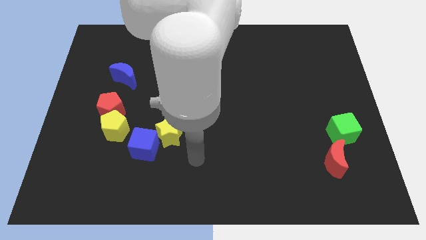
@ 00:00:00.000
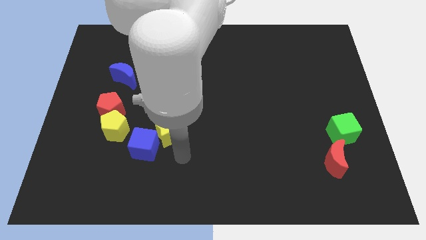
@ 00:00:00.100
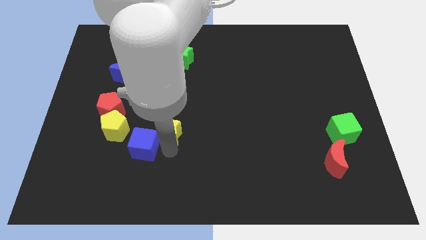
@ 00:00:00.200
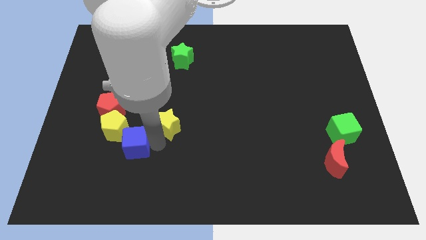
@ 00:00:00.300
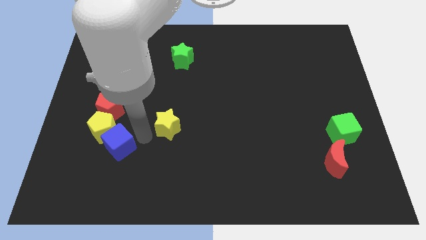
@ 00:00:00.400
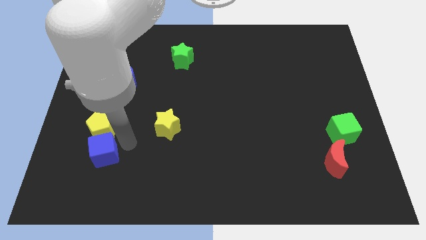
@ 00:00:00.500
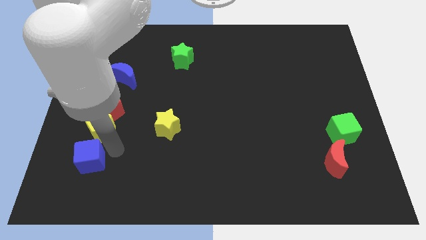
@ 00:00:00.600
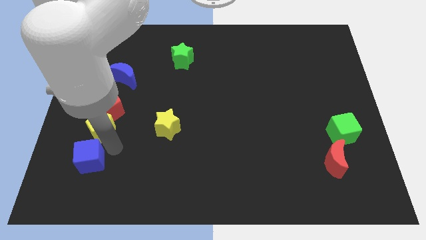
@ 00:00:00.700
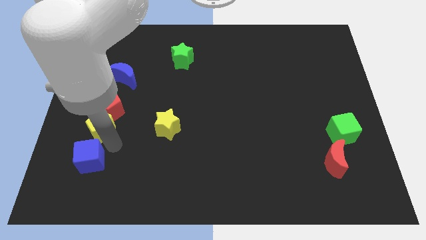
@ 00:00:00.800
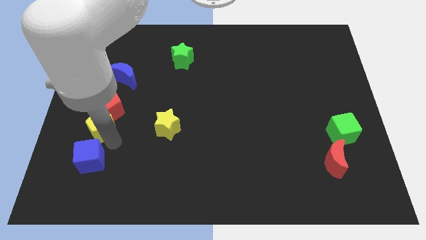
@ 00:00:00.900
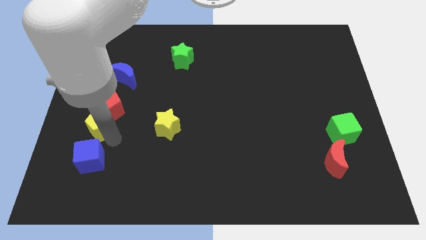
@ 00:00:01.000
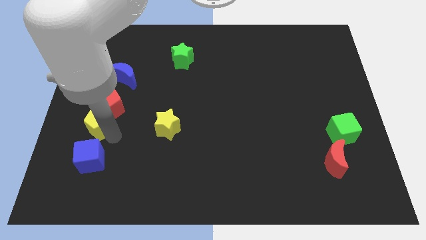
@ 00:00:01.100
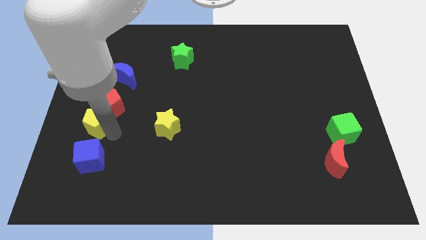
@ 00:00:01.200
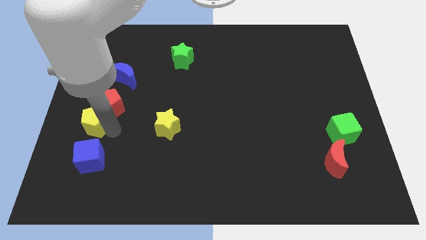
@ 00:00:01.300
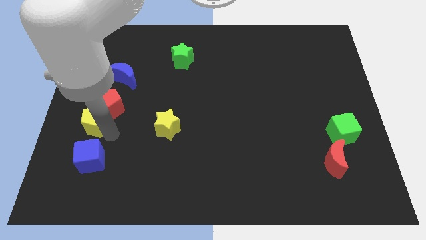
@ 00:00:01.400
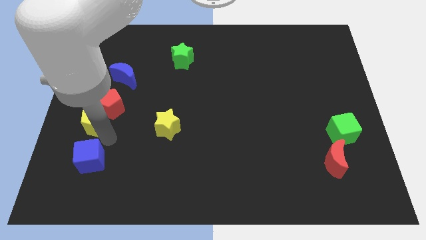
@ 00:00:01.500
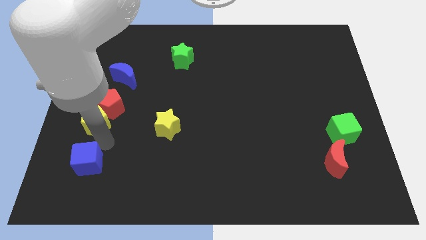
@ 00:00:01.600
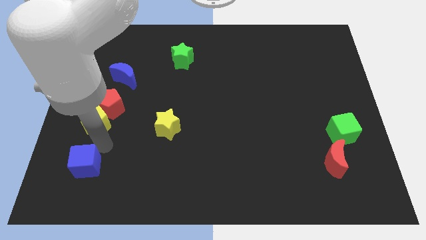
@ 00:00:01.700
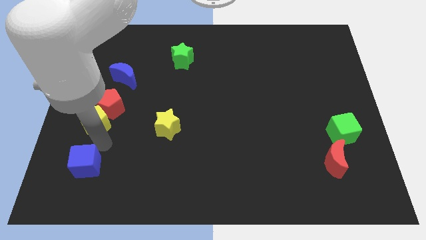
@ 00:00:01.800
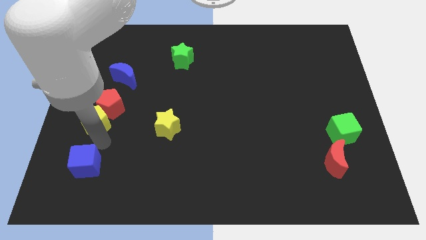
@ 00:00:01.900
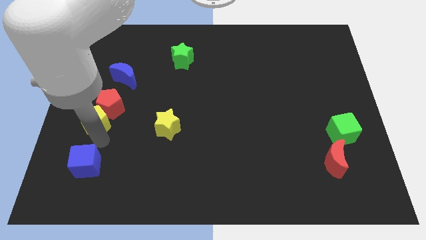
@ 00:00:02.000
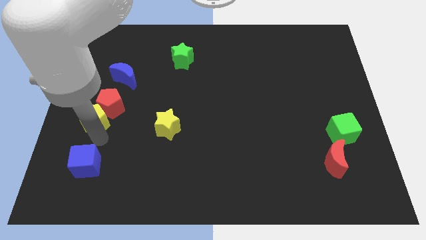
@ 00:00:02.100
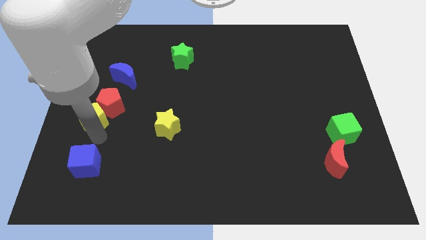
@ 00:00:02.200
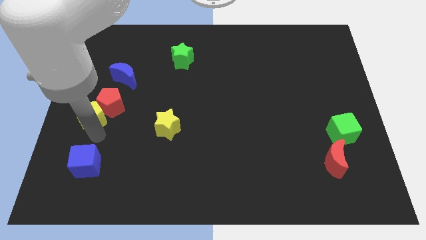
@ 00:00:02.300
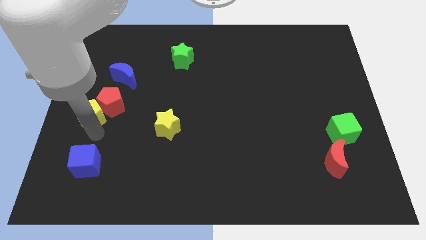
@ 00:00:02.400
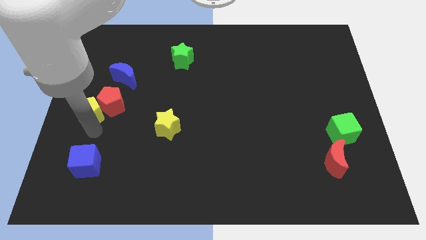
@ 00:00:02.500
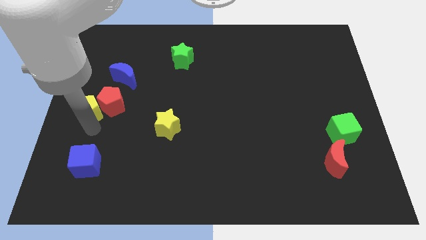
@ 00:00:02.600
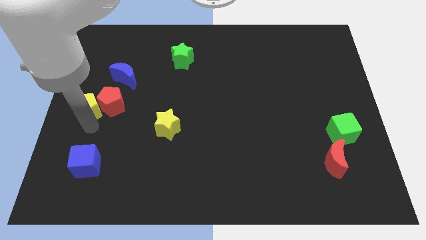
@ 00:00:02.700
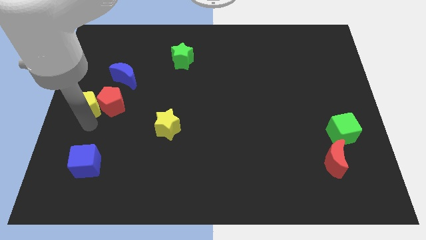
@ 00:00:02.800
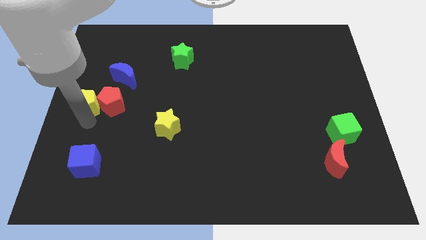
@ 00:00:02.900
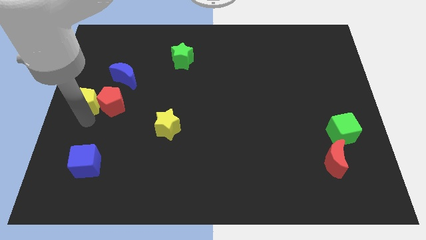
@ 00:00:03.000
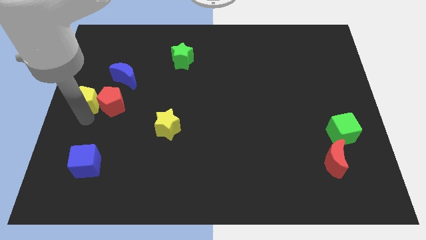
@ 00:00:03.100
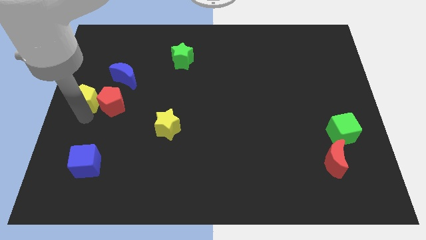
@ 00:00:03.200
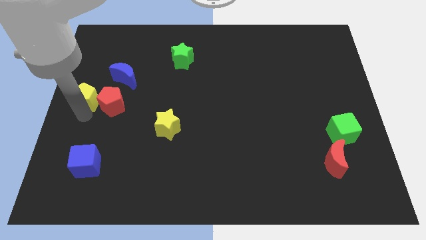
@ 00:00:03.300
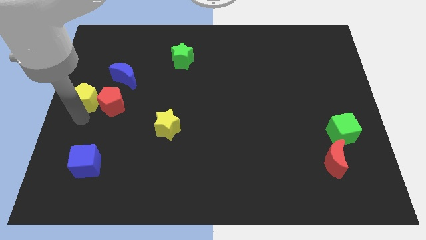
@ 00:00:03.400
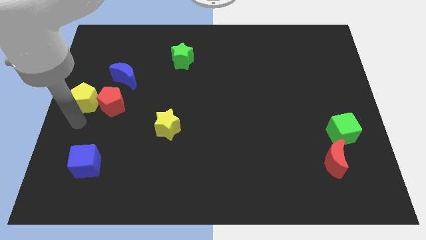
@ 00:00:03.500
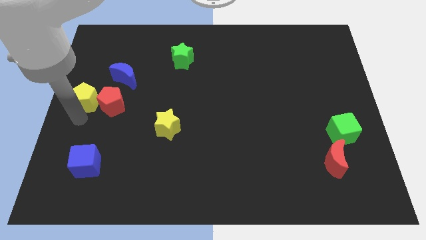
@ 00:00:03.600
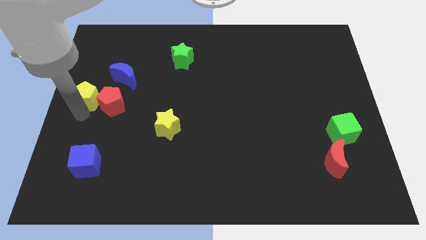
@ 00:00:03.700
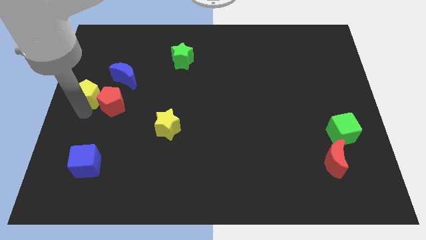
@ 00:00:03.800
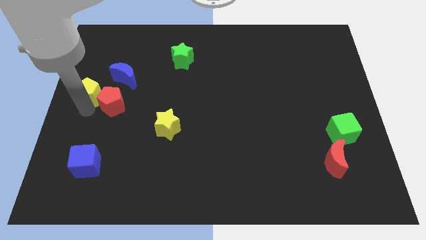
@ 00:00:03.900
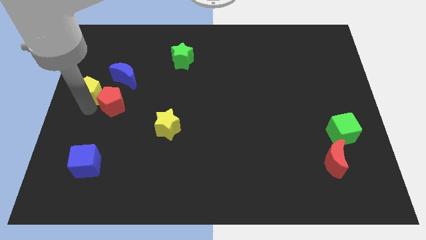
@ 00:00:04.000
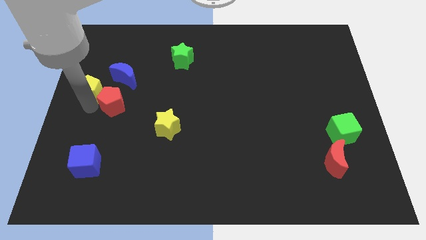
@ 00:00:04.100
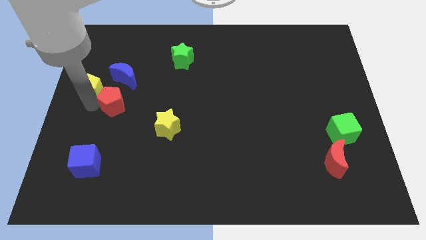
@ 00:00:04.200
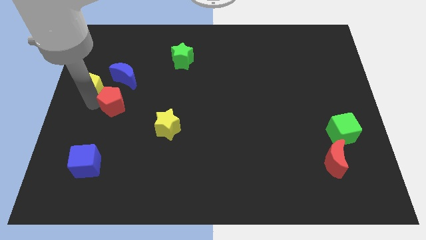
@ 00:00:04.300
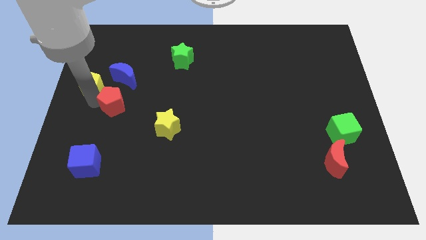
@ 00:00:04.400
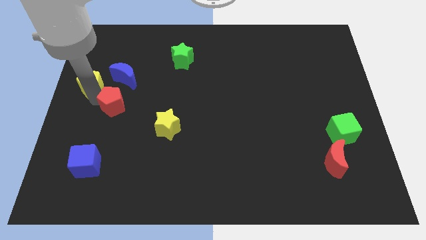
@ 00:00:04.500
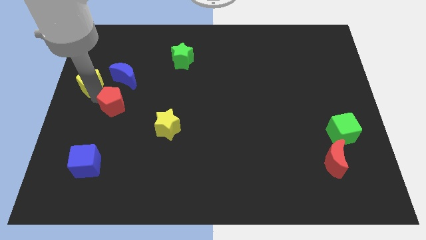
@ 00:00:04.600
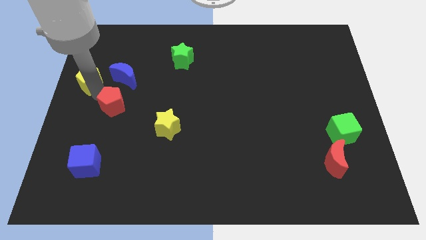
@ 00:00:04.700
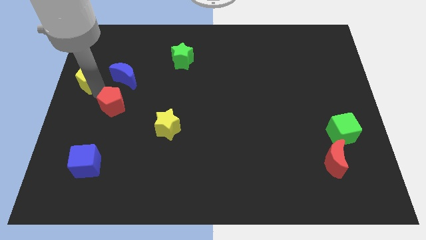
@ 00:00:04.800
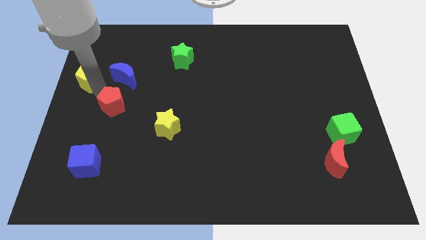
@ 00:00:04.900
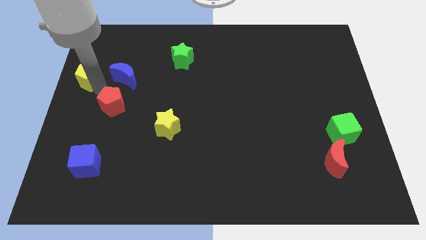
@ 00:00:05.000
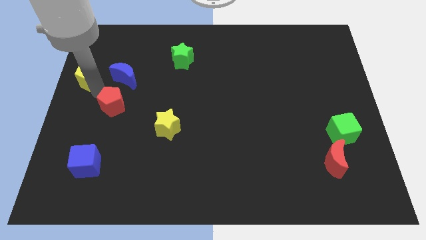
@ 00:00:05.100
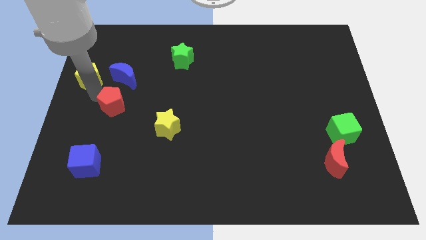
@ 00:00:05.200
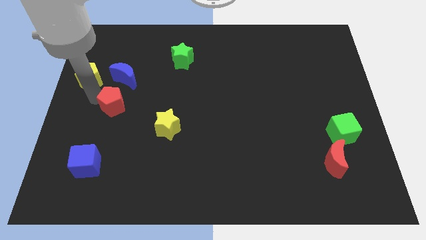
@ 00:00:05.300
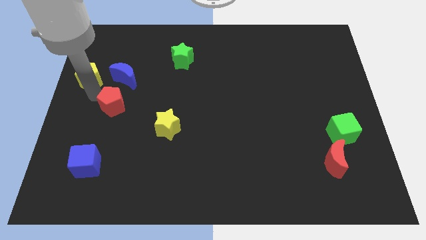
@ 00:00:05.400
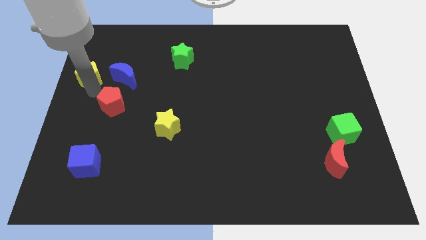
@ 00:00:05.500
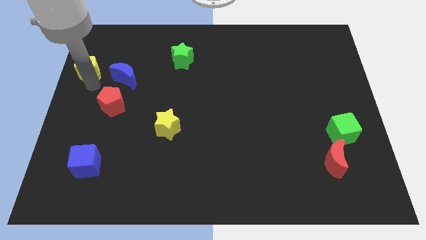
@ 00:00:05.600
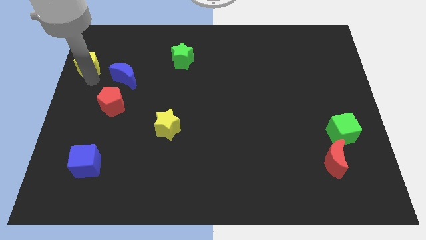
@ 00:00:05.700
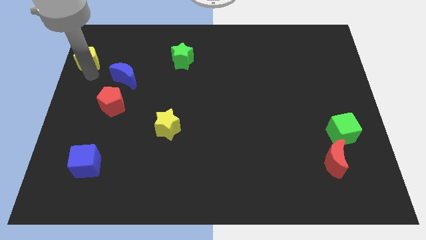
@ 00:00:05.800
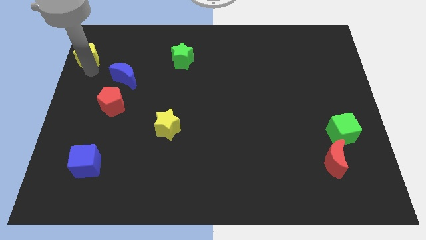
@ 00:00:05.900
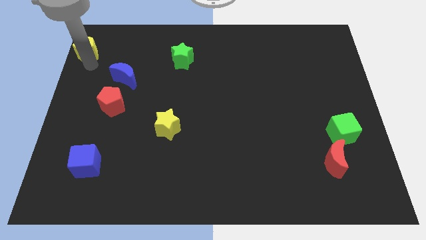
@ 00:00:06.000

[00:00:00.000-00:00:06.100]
slide the yellow pentagon to the top left of the board
